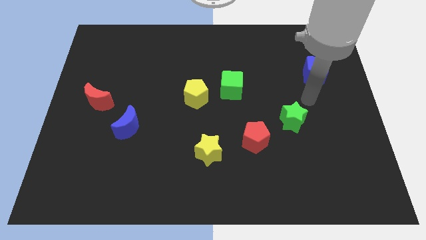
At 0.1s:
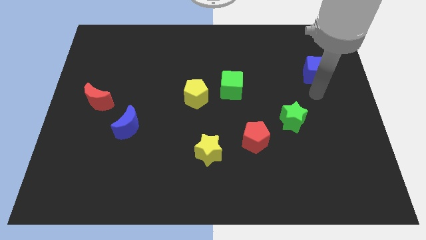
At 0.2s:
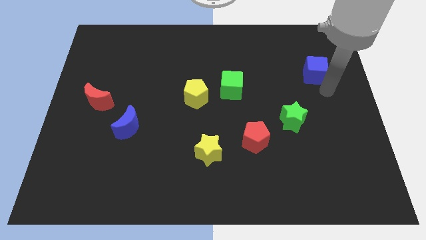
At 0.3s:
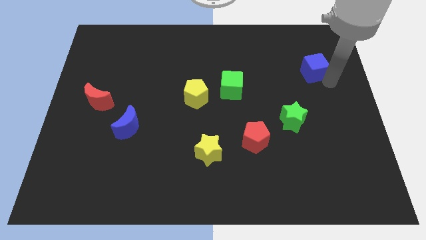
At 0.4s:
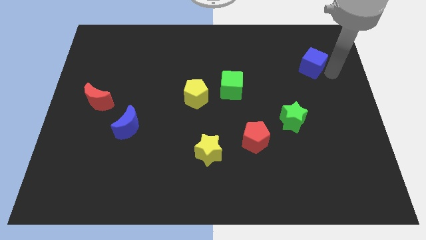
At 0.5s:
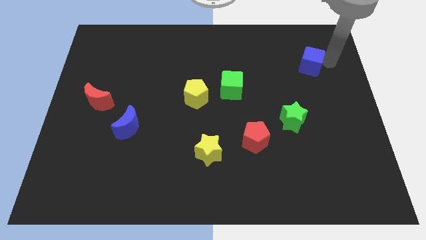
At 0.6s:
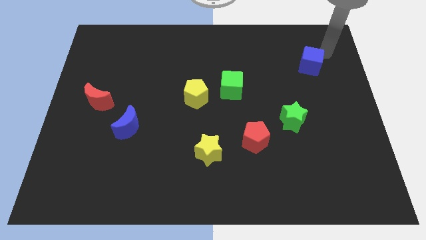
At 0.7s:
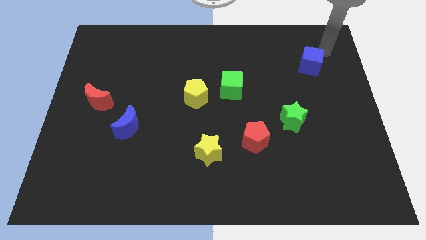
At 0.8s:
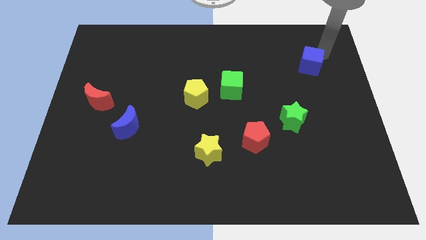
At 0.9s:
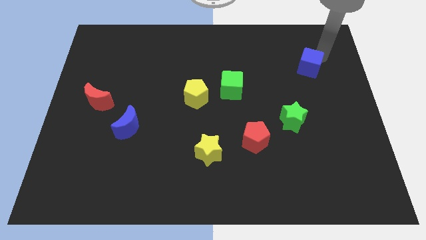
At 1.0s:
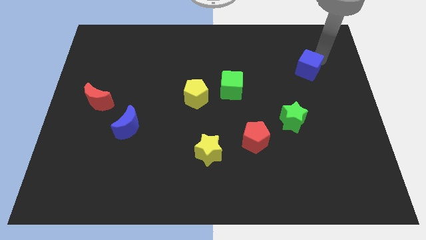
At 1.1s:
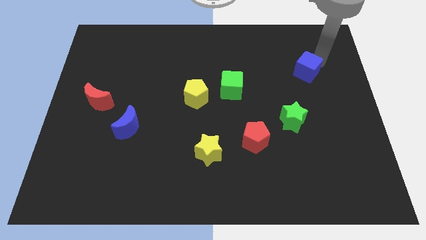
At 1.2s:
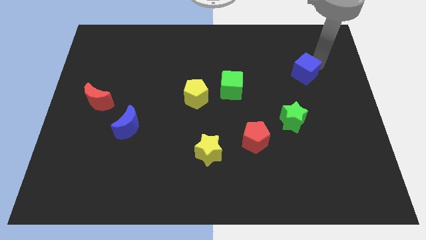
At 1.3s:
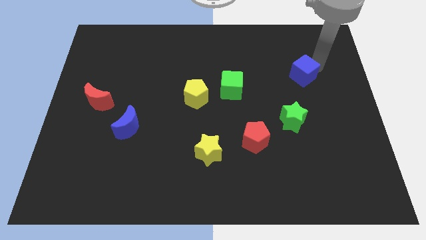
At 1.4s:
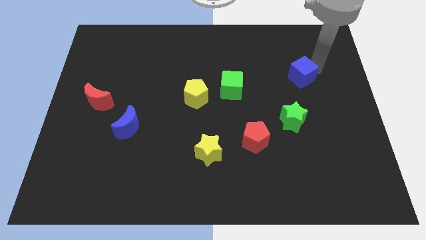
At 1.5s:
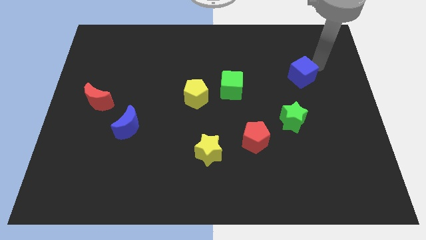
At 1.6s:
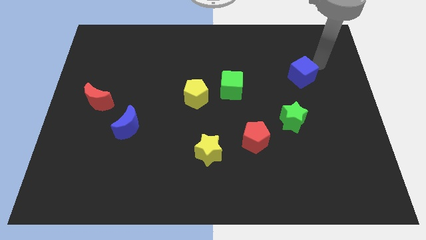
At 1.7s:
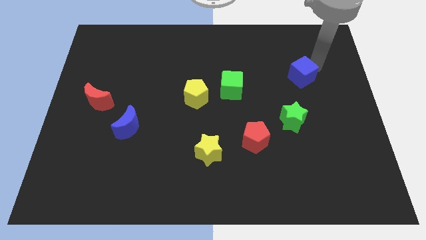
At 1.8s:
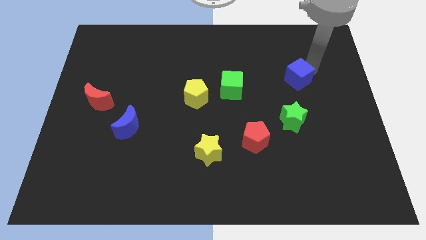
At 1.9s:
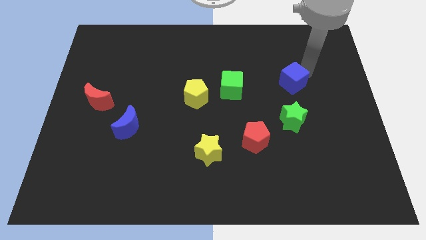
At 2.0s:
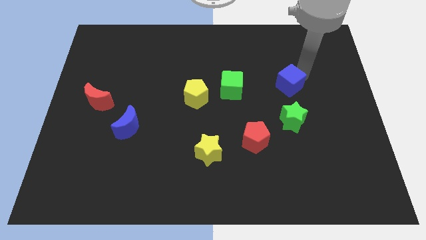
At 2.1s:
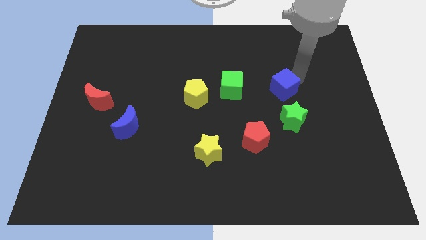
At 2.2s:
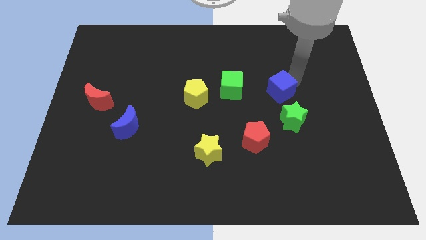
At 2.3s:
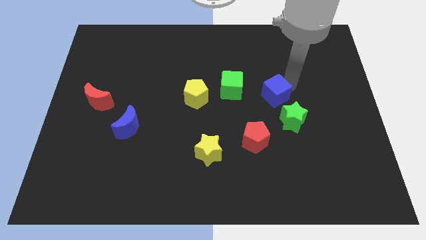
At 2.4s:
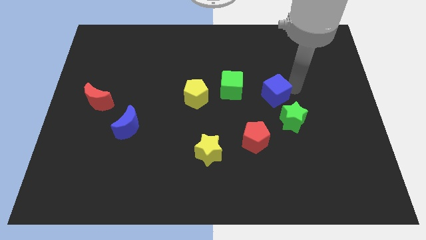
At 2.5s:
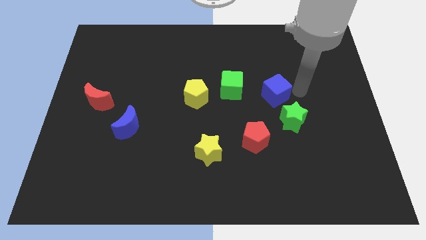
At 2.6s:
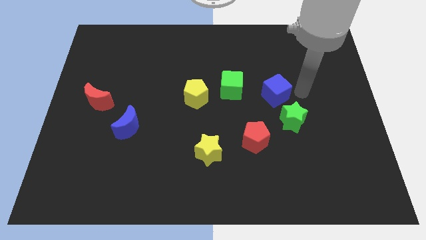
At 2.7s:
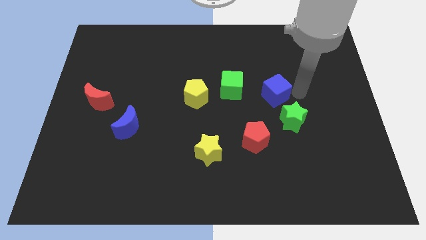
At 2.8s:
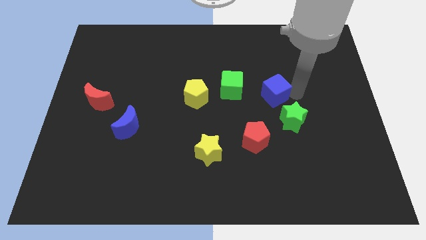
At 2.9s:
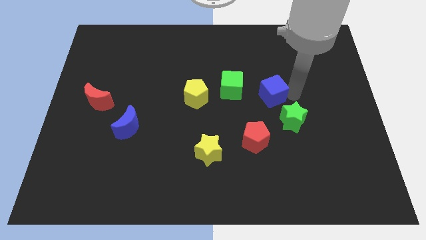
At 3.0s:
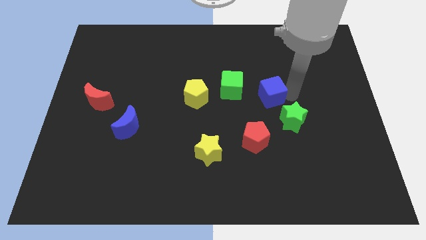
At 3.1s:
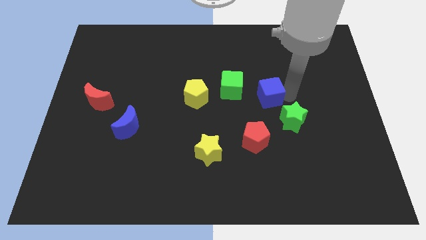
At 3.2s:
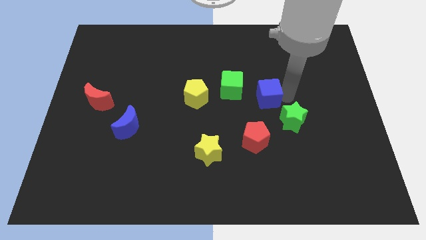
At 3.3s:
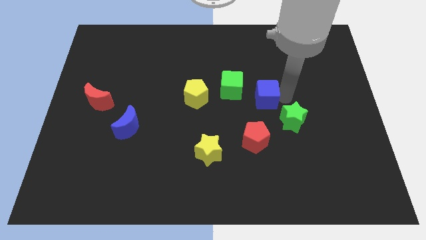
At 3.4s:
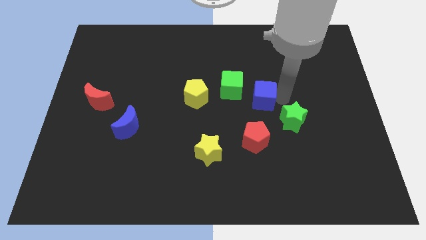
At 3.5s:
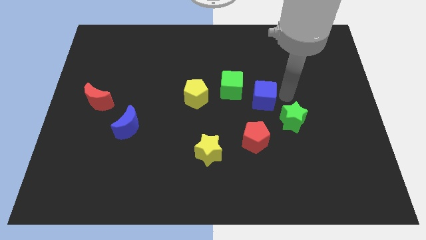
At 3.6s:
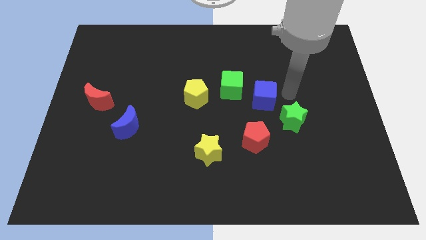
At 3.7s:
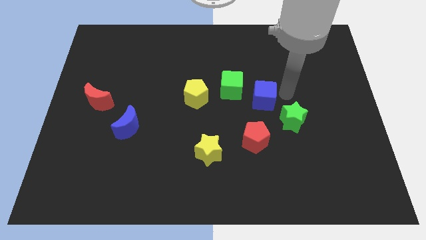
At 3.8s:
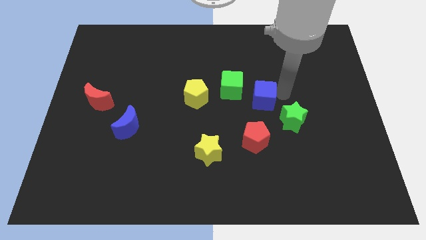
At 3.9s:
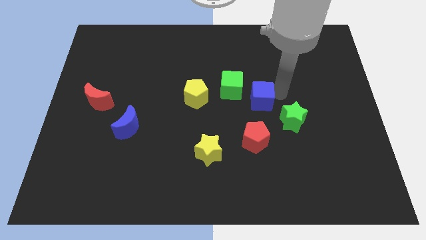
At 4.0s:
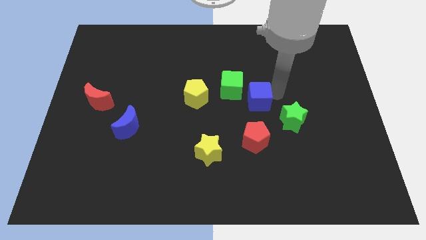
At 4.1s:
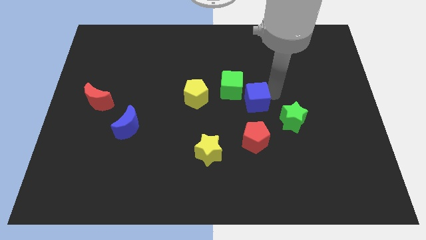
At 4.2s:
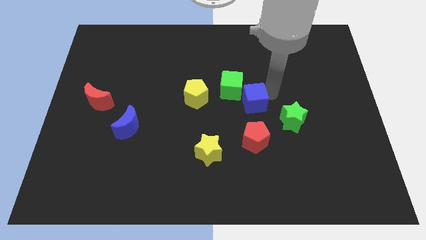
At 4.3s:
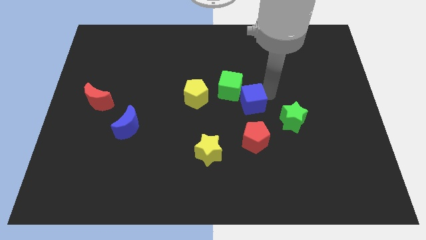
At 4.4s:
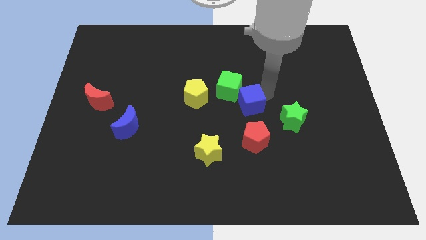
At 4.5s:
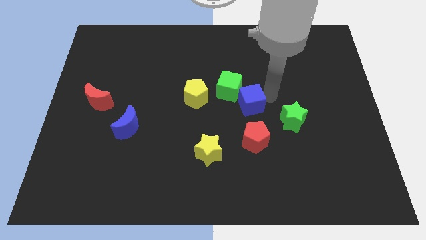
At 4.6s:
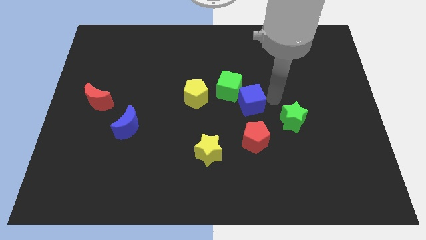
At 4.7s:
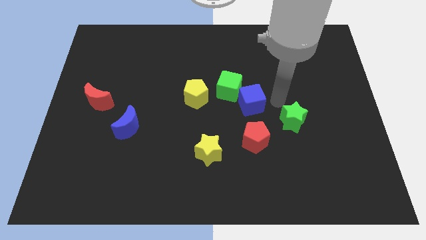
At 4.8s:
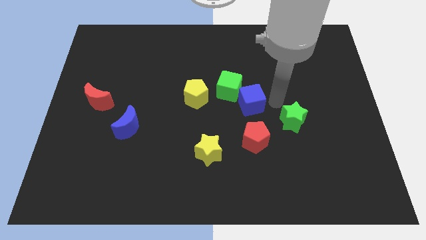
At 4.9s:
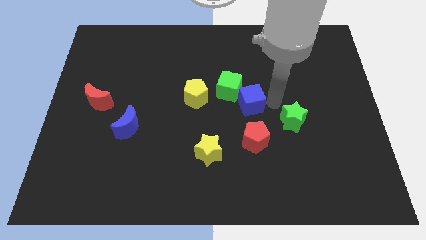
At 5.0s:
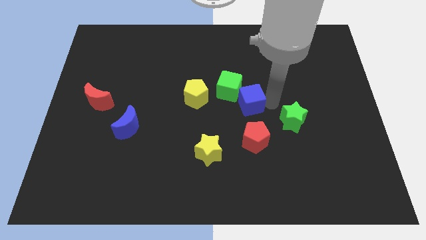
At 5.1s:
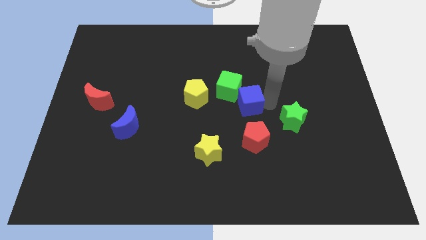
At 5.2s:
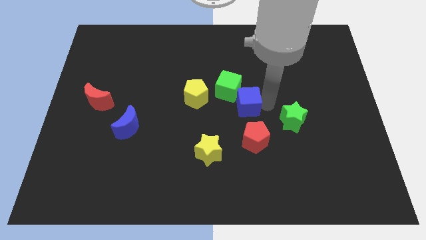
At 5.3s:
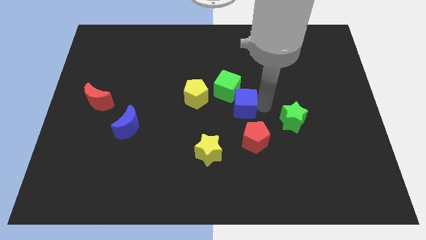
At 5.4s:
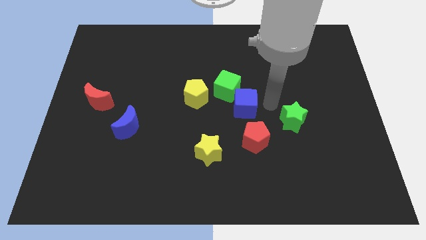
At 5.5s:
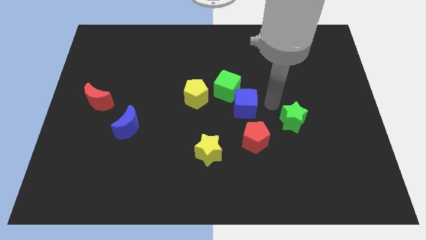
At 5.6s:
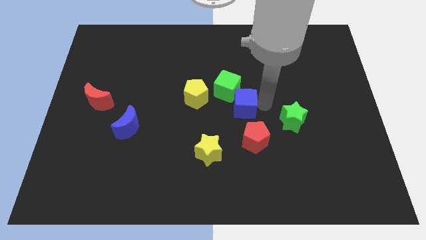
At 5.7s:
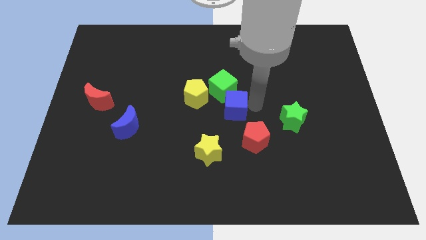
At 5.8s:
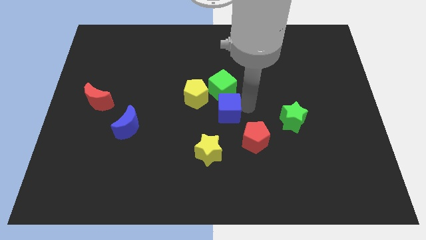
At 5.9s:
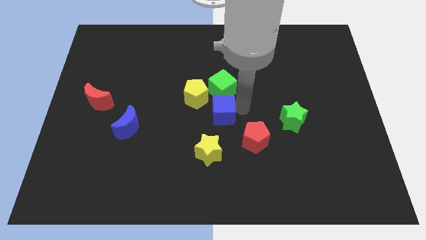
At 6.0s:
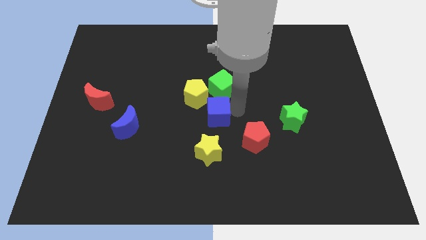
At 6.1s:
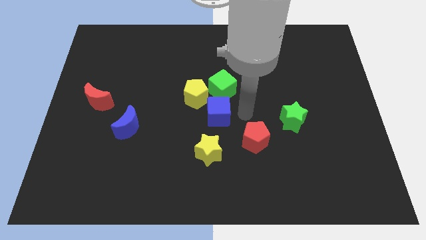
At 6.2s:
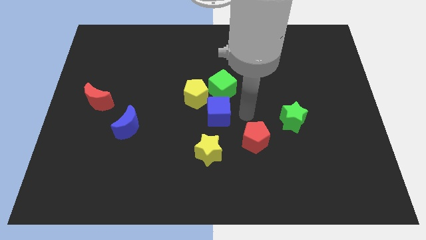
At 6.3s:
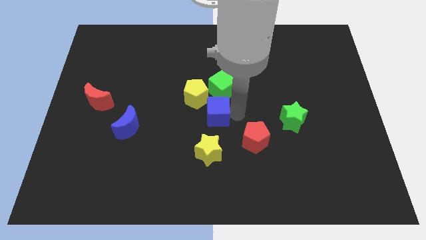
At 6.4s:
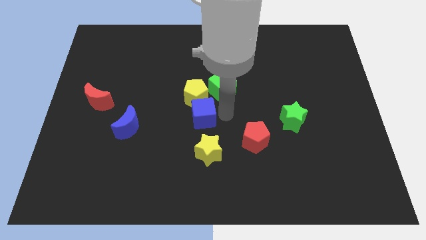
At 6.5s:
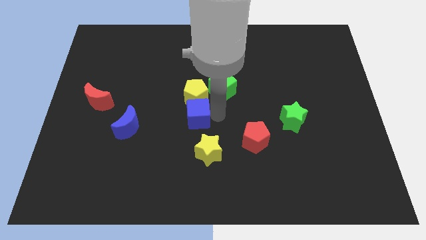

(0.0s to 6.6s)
put the blue cube to the bottom left of the yellow pentagon
